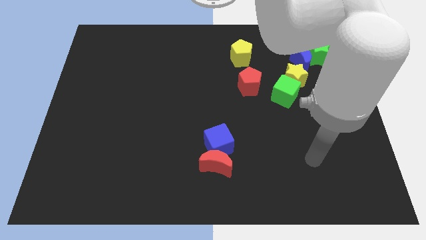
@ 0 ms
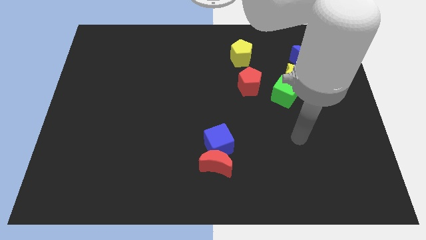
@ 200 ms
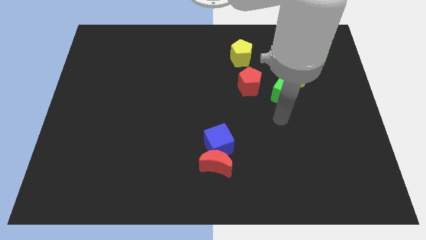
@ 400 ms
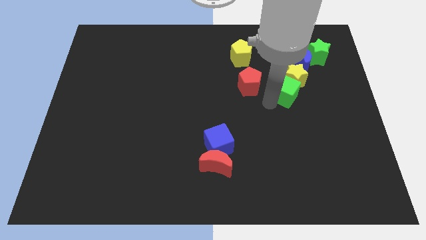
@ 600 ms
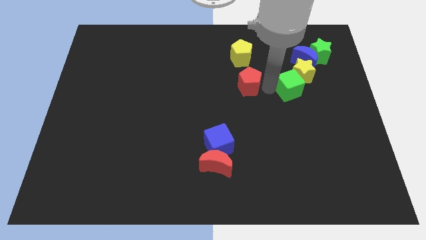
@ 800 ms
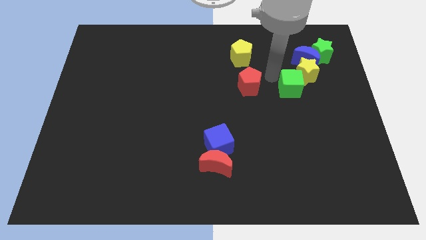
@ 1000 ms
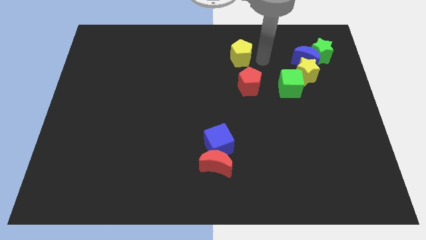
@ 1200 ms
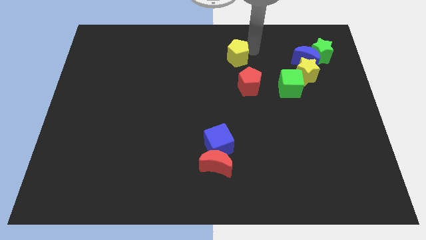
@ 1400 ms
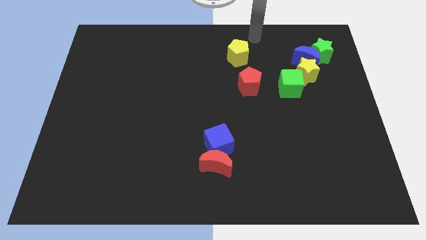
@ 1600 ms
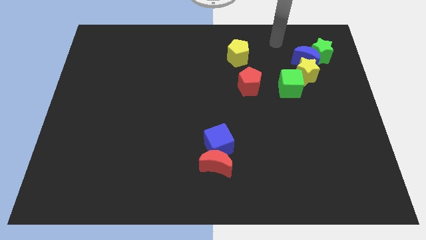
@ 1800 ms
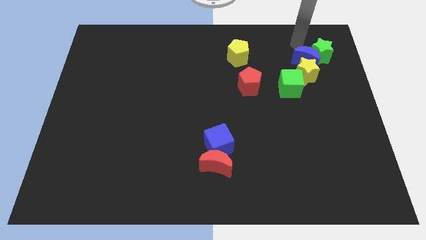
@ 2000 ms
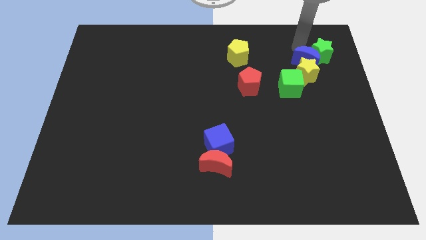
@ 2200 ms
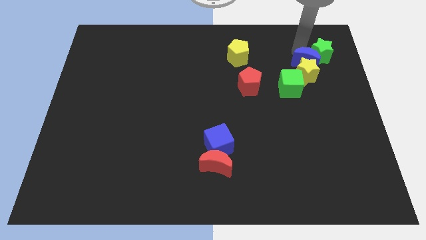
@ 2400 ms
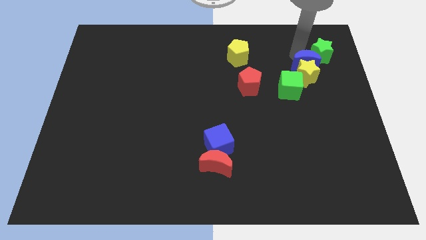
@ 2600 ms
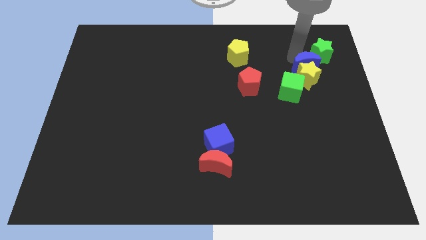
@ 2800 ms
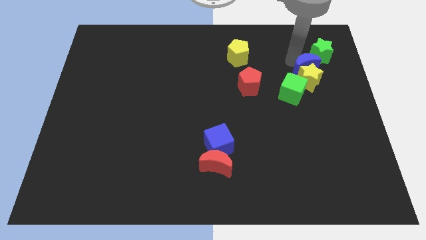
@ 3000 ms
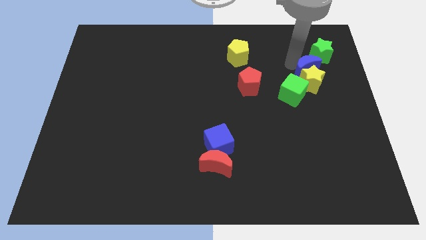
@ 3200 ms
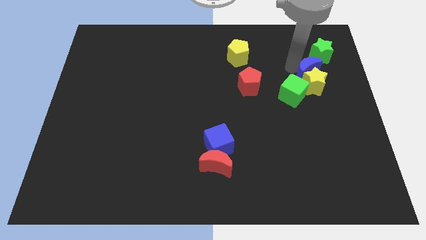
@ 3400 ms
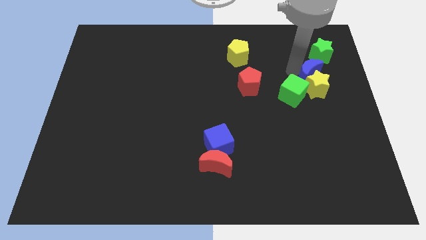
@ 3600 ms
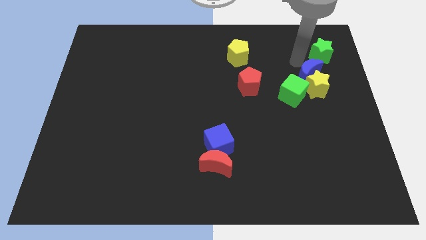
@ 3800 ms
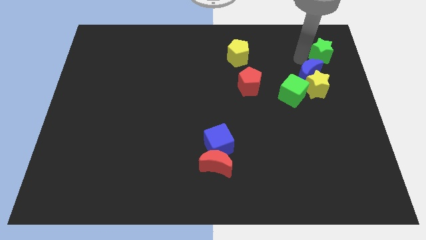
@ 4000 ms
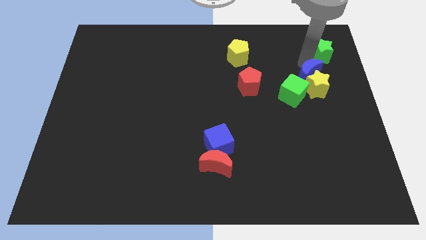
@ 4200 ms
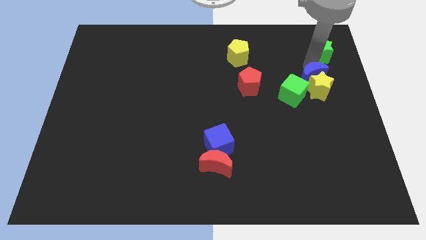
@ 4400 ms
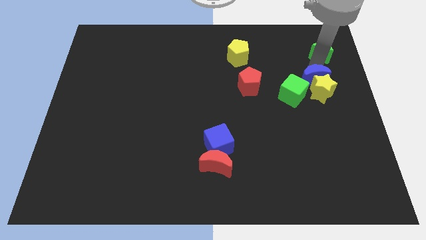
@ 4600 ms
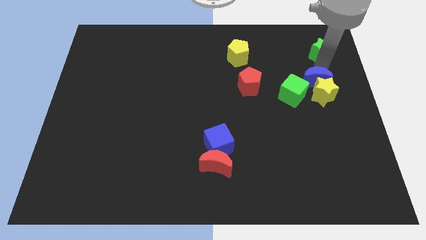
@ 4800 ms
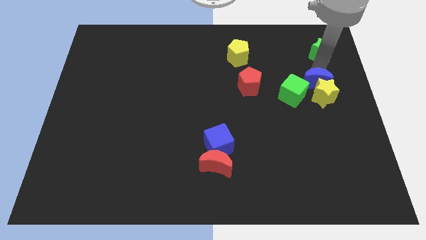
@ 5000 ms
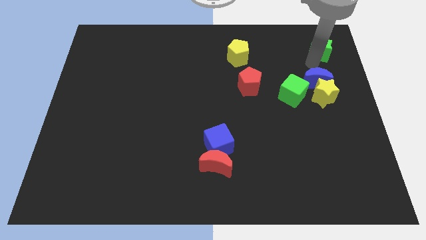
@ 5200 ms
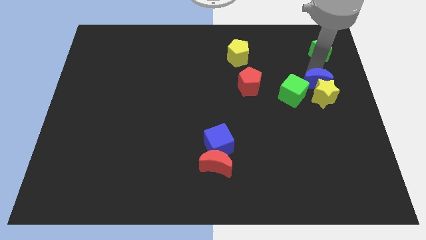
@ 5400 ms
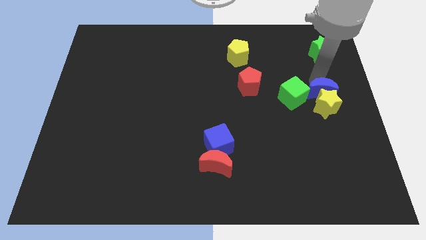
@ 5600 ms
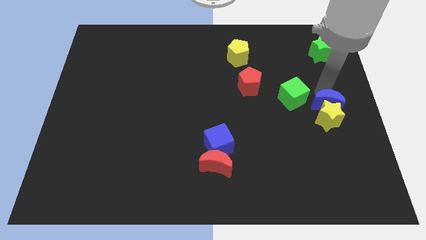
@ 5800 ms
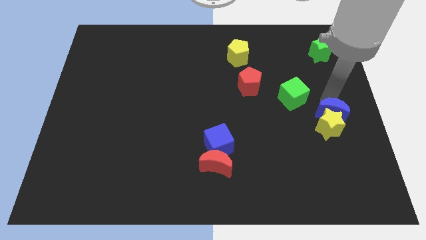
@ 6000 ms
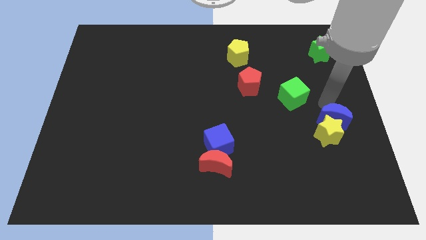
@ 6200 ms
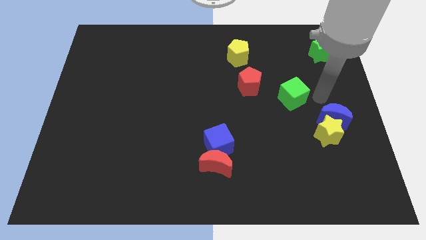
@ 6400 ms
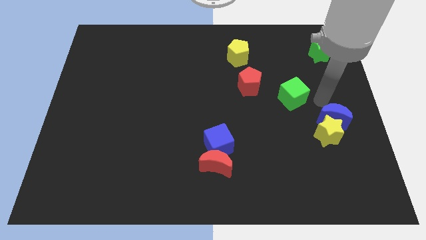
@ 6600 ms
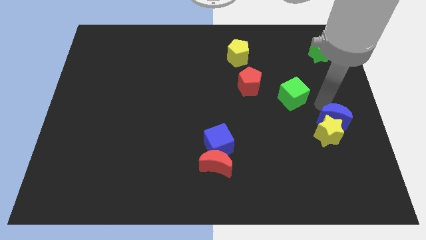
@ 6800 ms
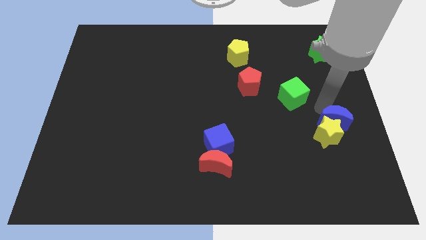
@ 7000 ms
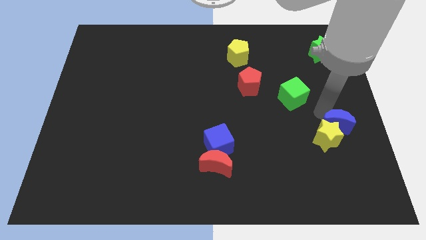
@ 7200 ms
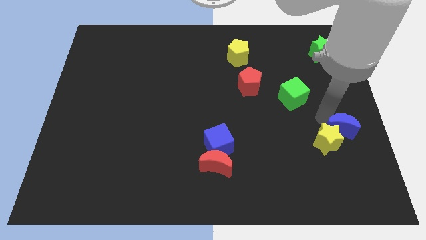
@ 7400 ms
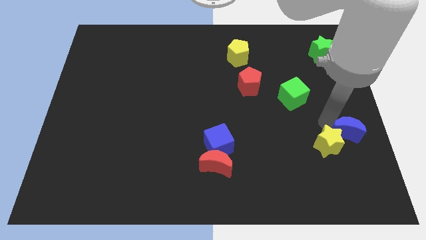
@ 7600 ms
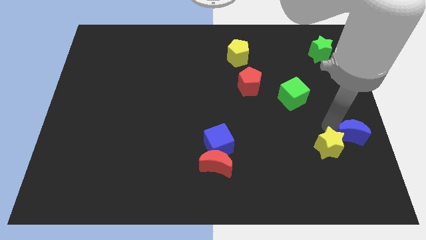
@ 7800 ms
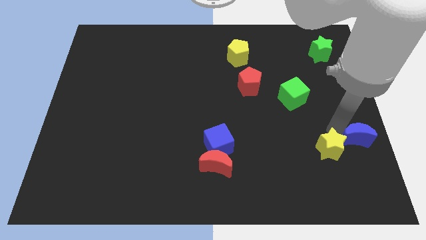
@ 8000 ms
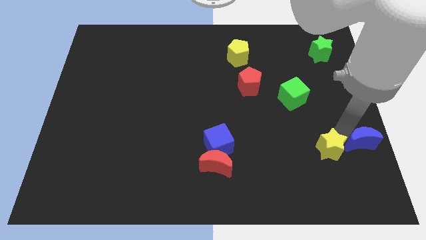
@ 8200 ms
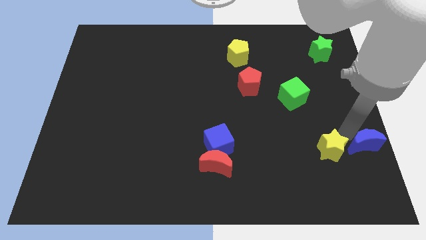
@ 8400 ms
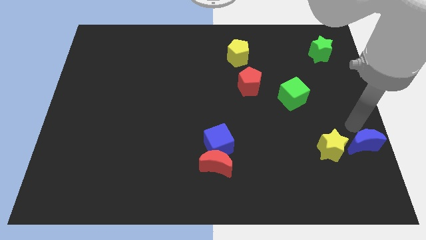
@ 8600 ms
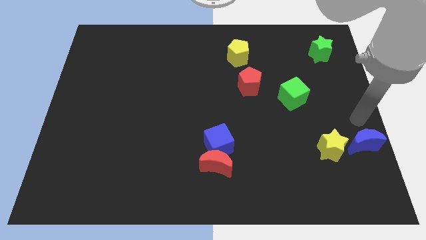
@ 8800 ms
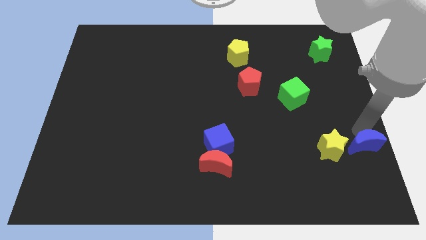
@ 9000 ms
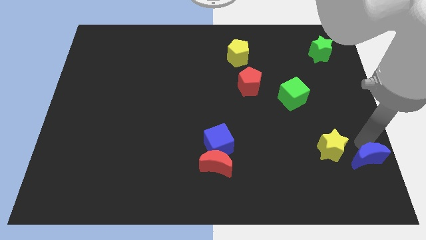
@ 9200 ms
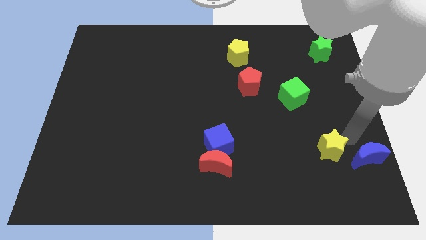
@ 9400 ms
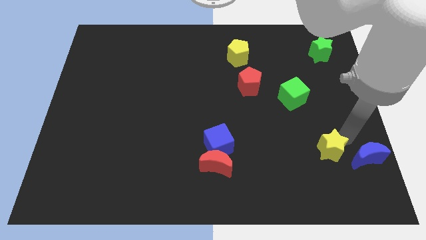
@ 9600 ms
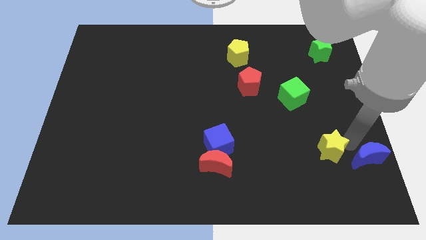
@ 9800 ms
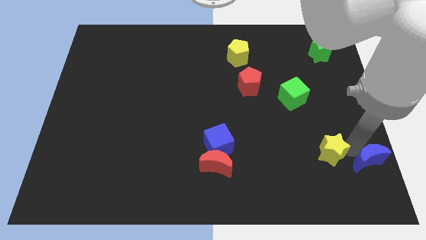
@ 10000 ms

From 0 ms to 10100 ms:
put the blue moon to the bottom right of the board

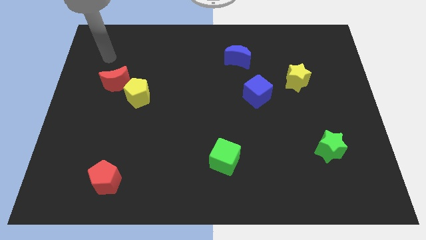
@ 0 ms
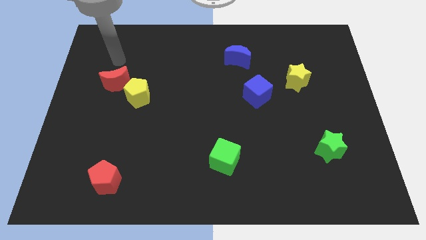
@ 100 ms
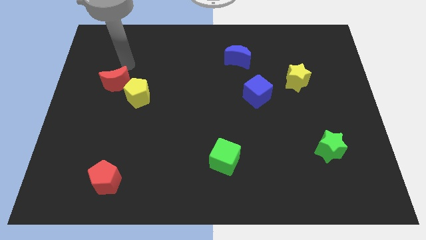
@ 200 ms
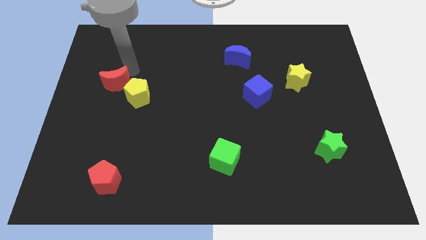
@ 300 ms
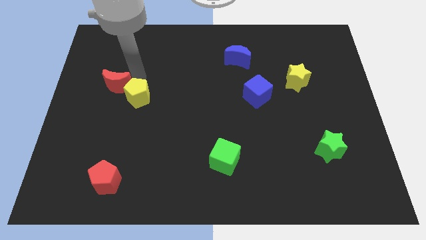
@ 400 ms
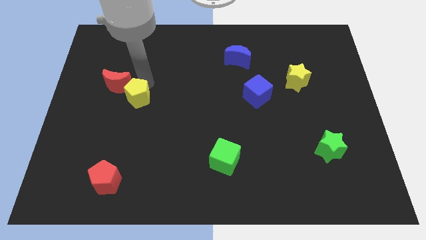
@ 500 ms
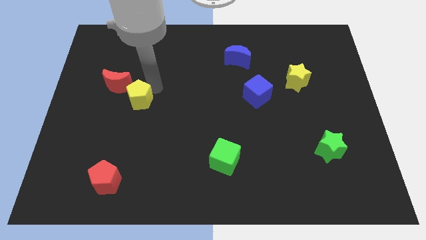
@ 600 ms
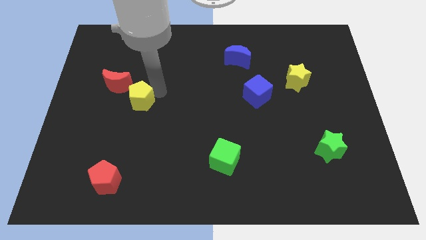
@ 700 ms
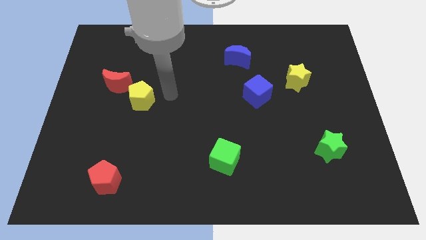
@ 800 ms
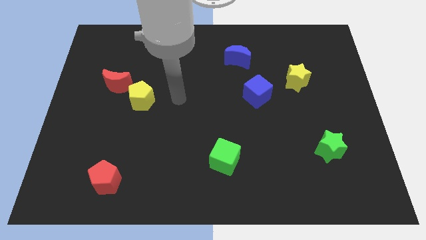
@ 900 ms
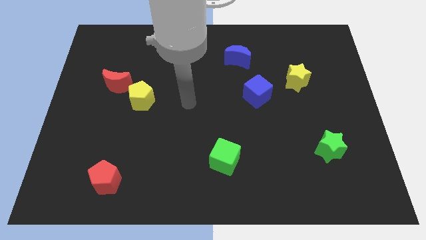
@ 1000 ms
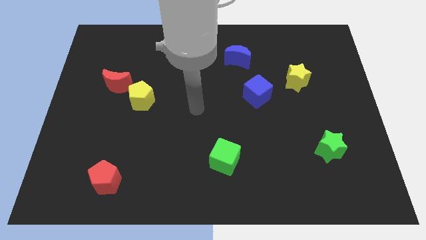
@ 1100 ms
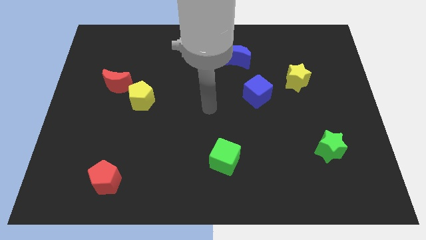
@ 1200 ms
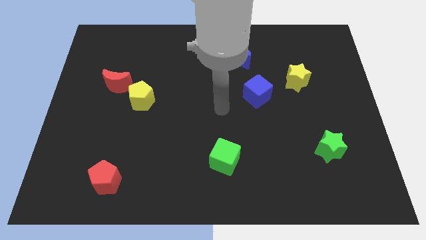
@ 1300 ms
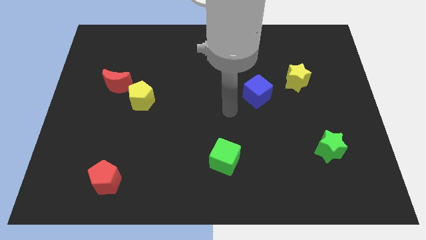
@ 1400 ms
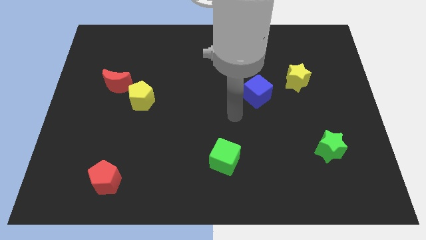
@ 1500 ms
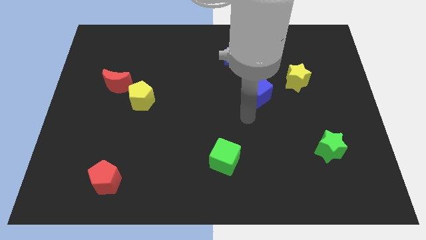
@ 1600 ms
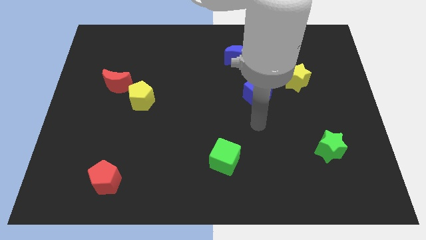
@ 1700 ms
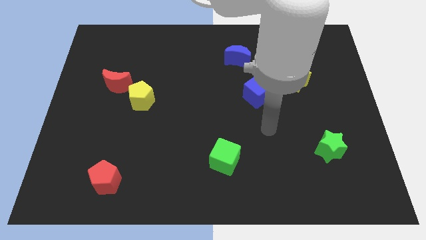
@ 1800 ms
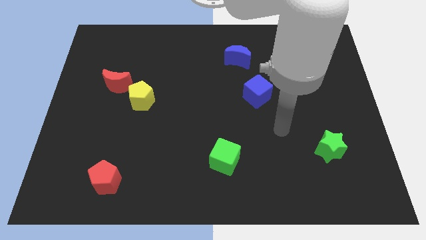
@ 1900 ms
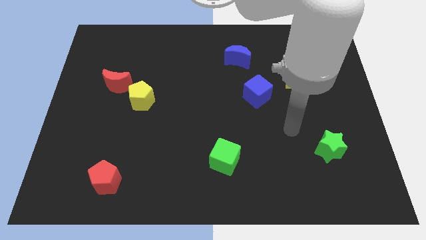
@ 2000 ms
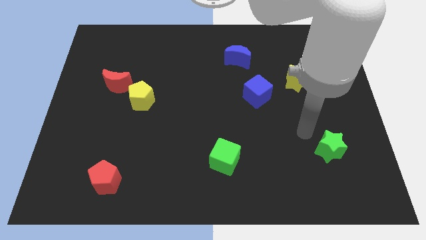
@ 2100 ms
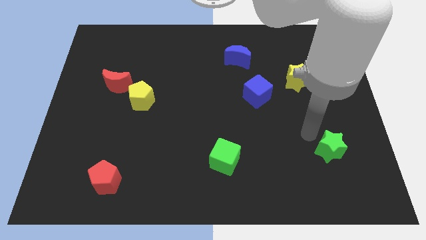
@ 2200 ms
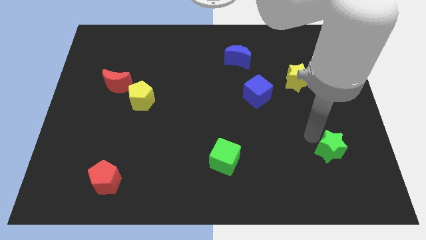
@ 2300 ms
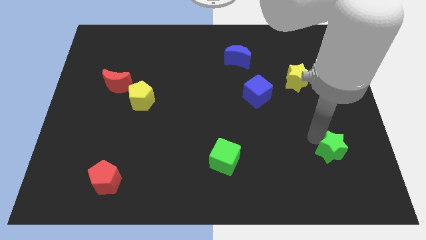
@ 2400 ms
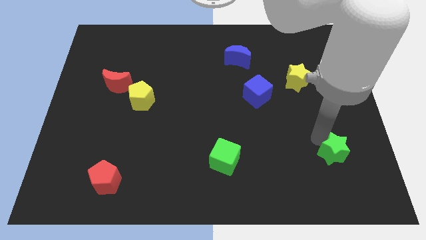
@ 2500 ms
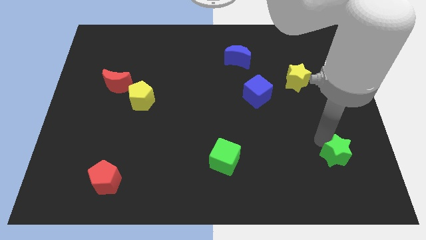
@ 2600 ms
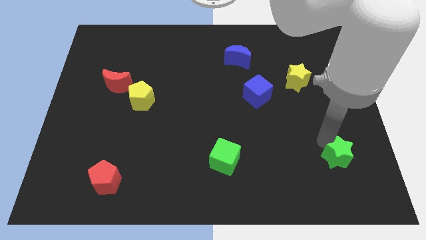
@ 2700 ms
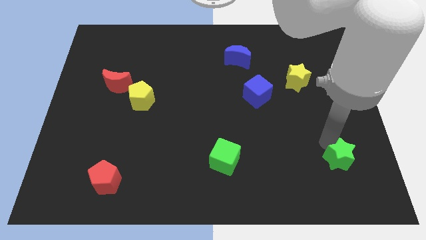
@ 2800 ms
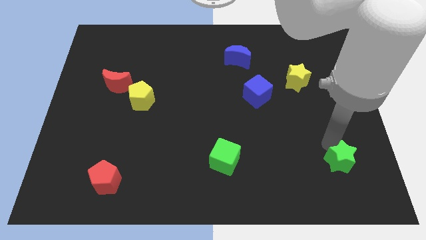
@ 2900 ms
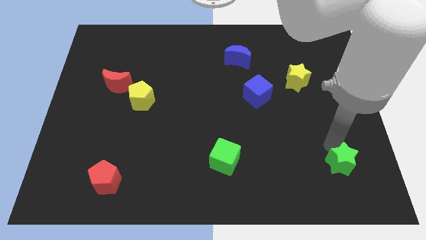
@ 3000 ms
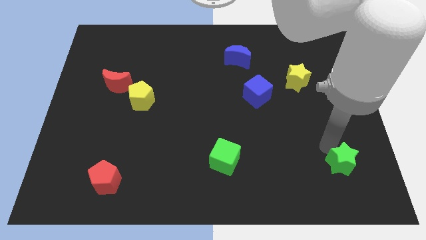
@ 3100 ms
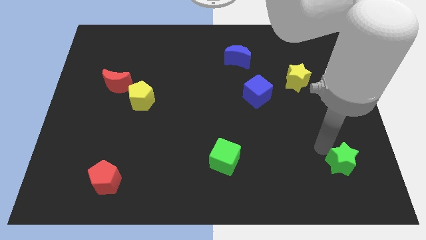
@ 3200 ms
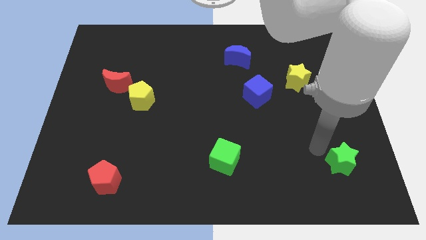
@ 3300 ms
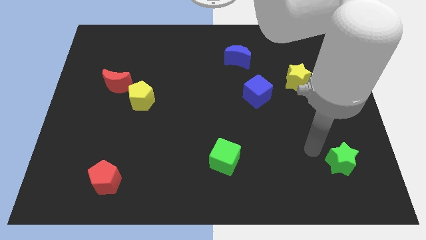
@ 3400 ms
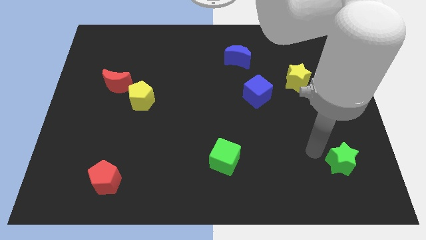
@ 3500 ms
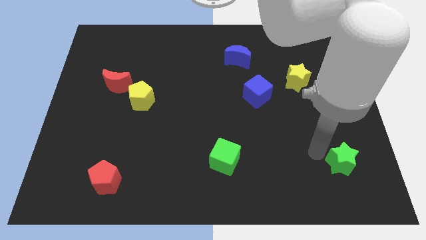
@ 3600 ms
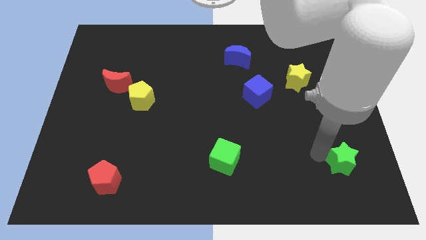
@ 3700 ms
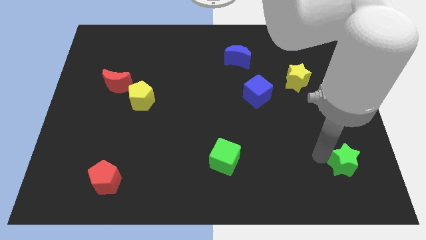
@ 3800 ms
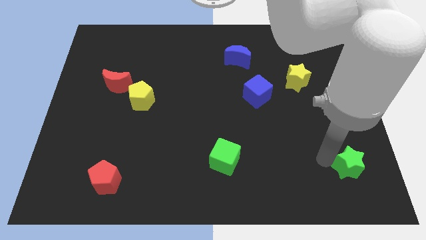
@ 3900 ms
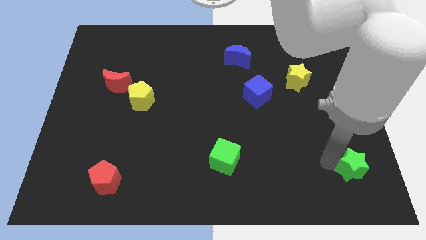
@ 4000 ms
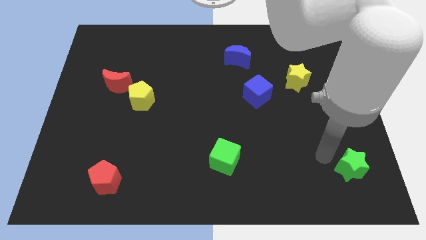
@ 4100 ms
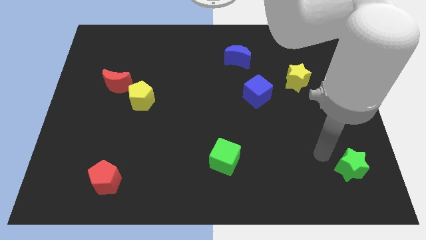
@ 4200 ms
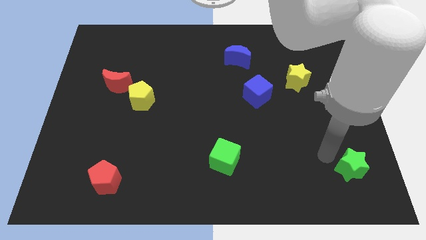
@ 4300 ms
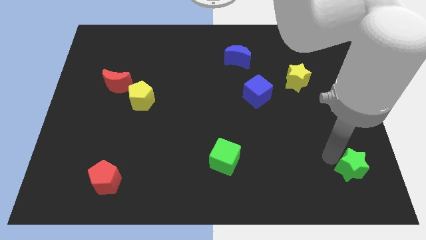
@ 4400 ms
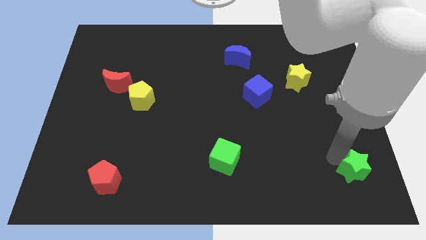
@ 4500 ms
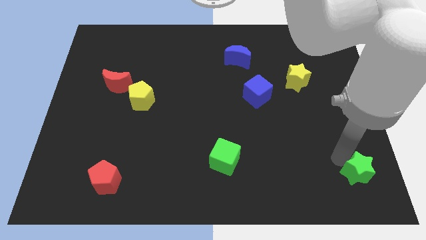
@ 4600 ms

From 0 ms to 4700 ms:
push the green star to the bottom right of the board
